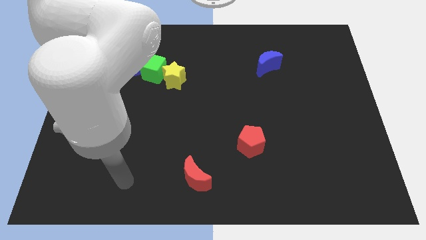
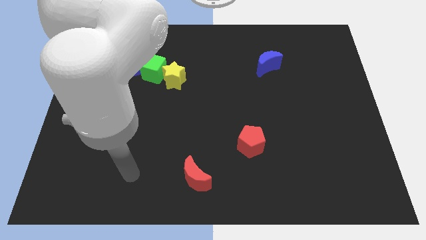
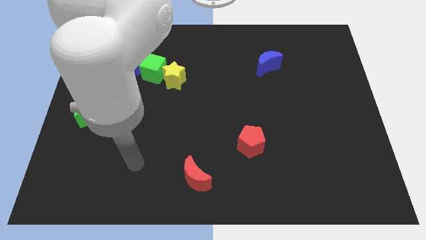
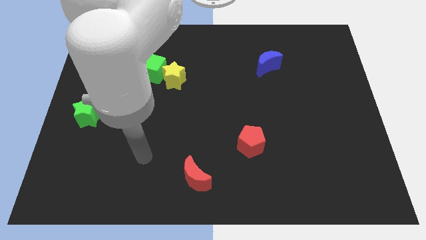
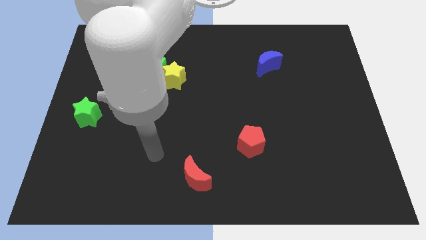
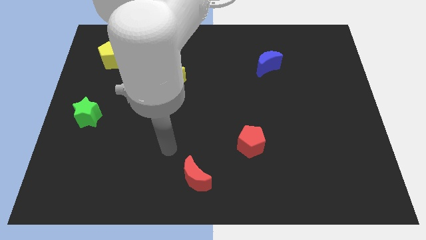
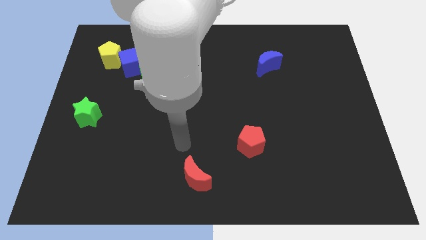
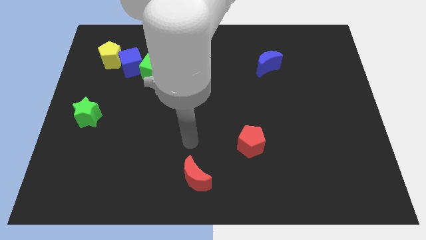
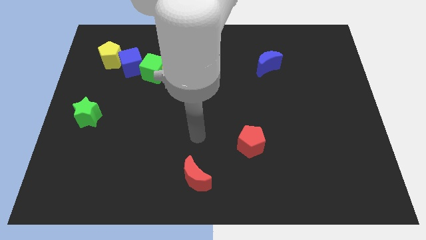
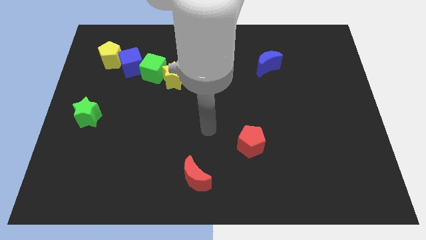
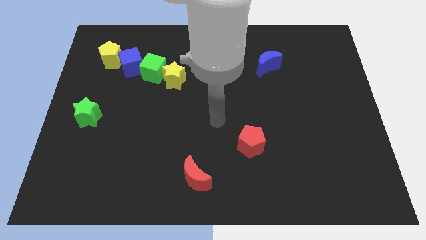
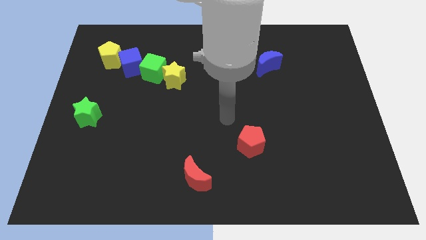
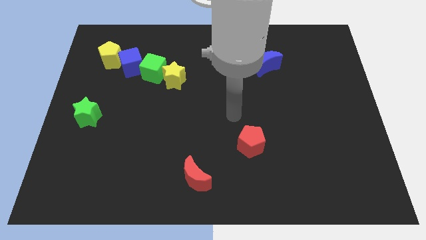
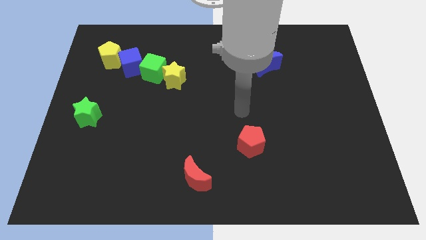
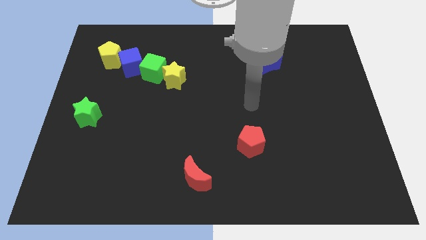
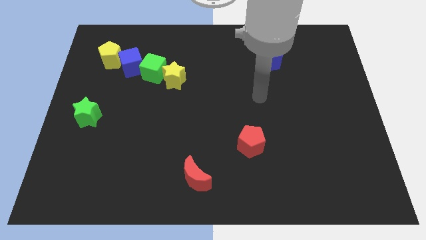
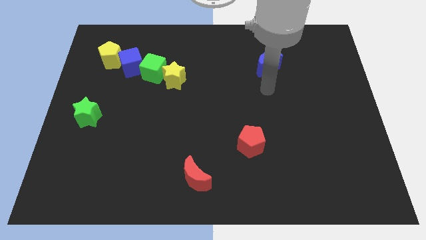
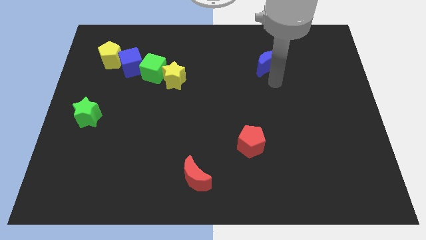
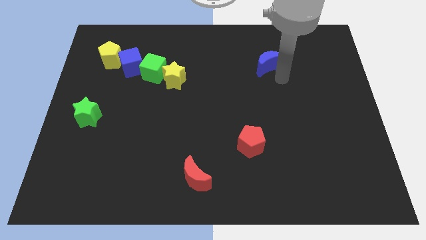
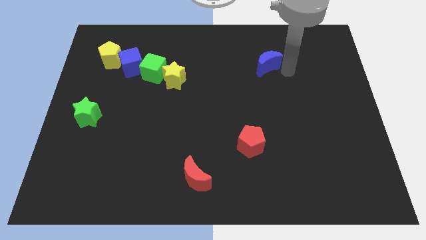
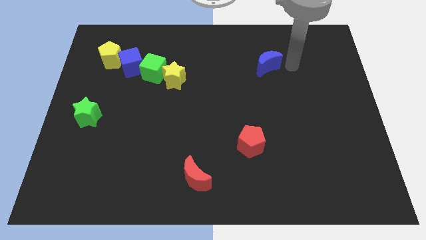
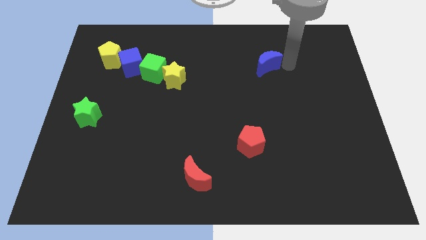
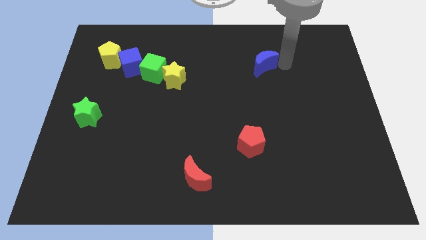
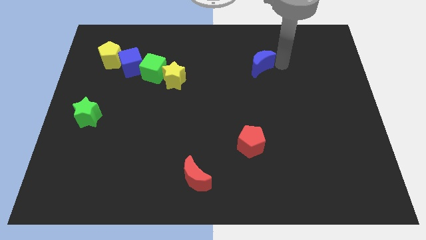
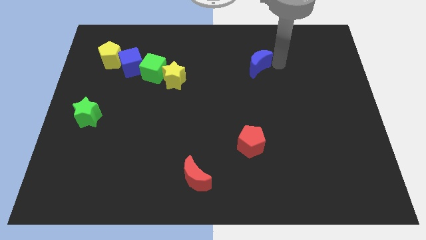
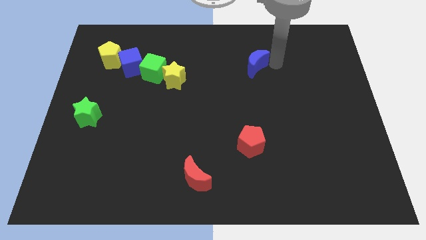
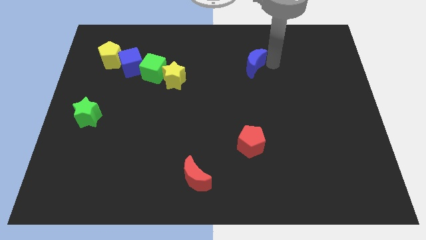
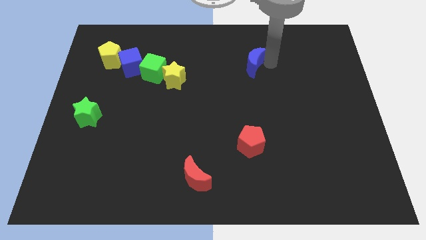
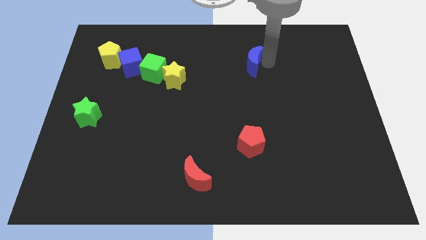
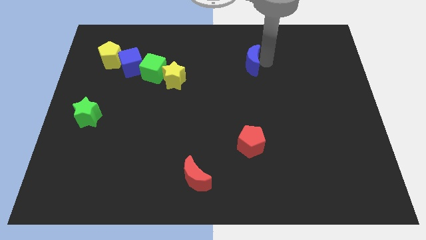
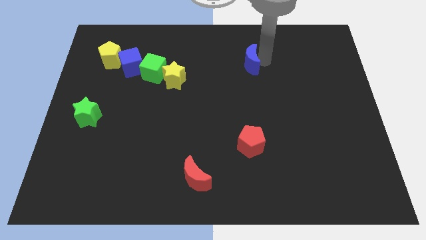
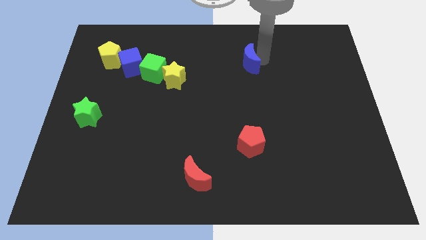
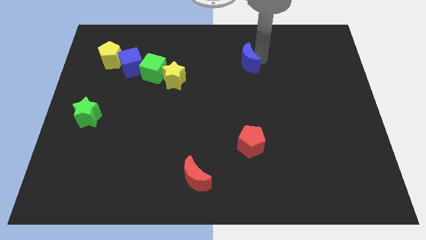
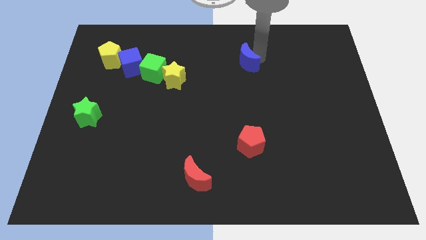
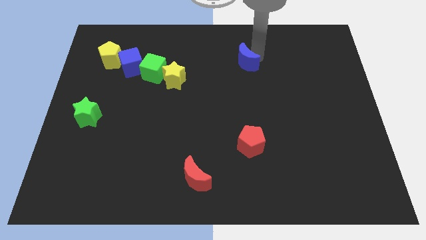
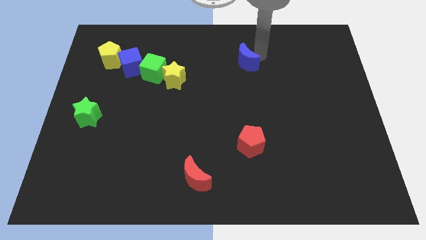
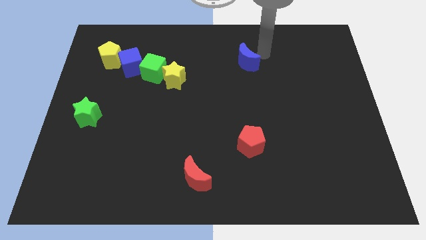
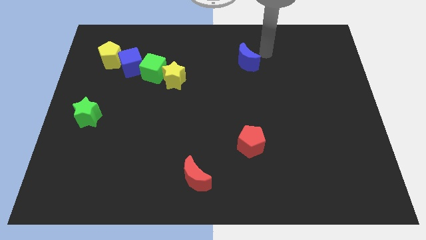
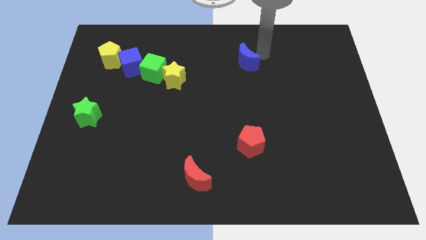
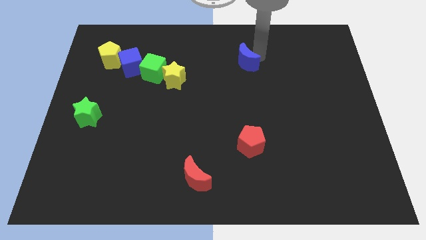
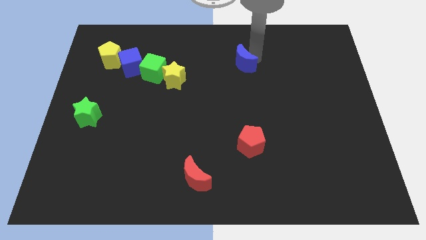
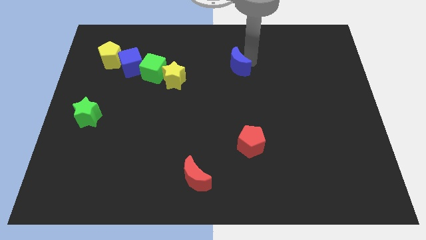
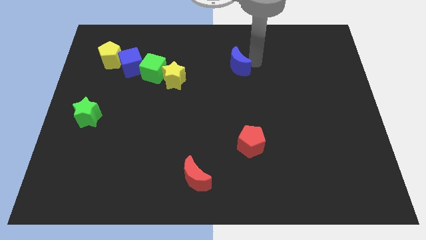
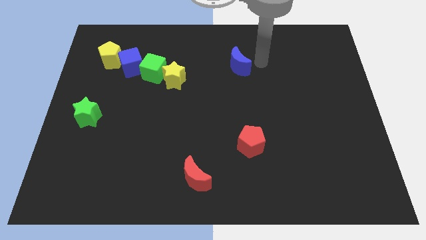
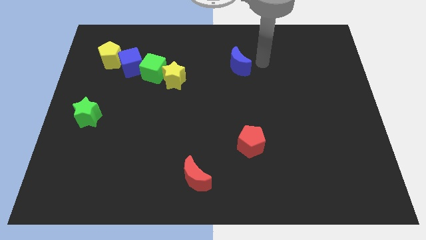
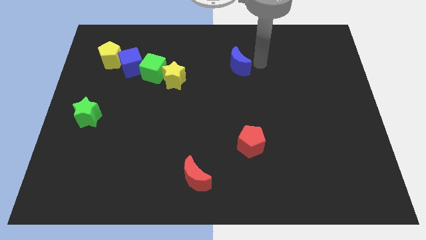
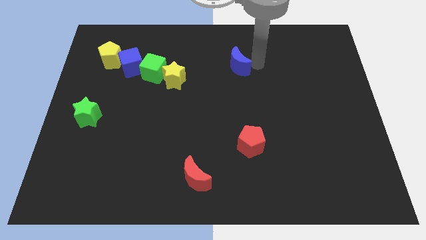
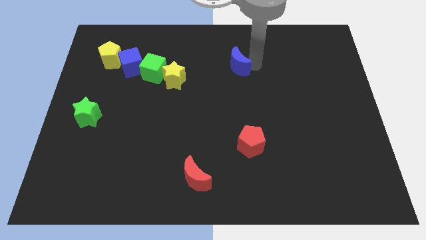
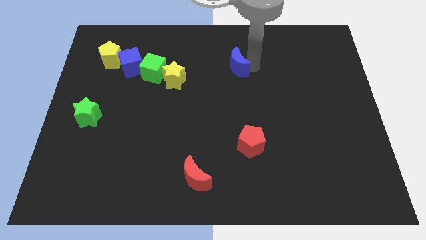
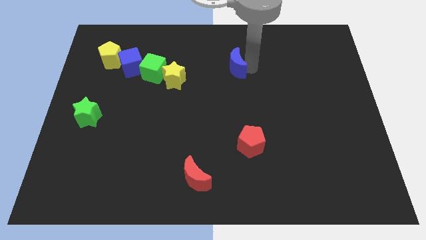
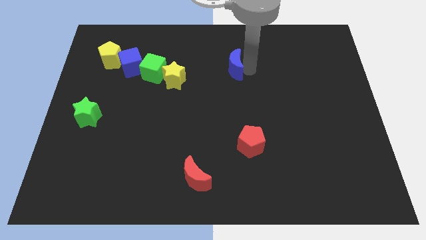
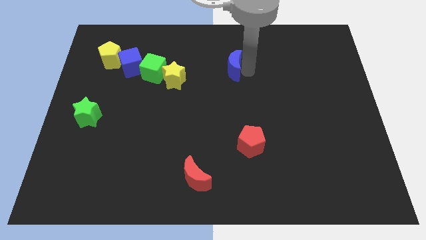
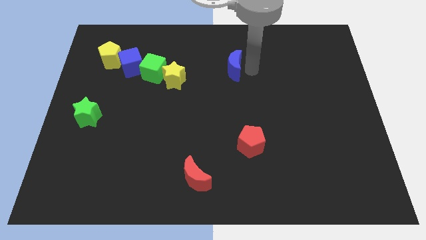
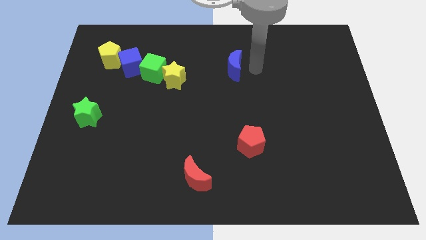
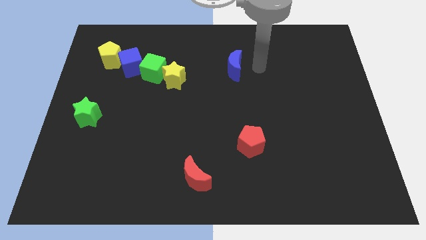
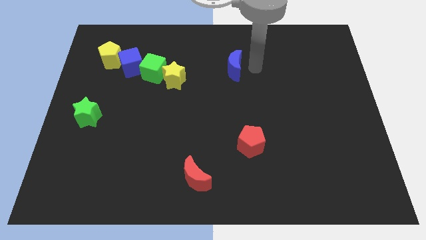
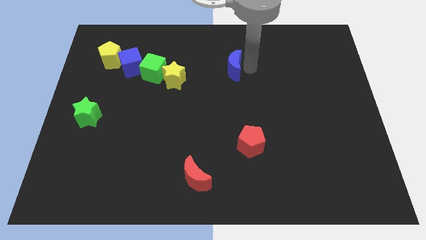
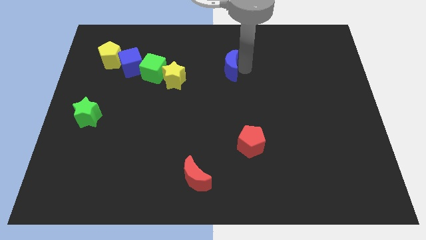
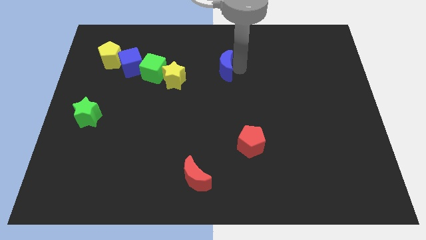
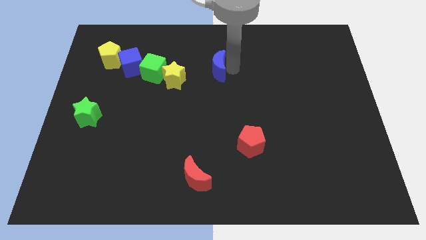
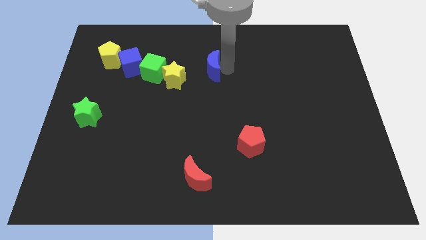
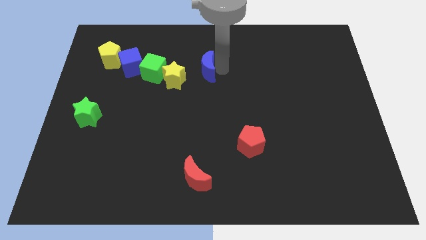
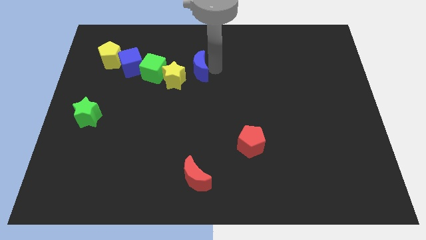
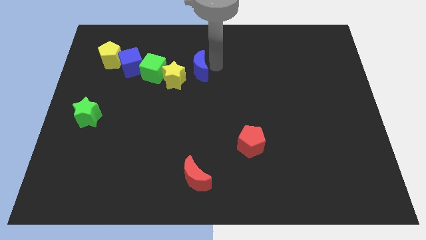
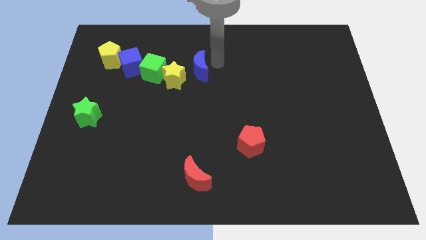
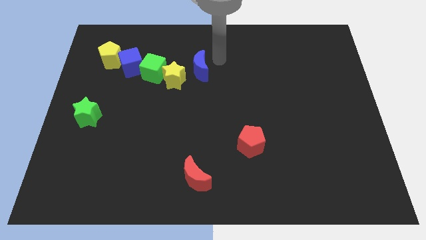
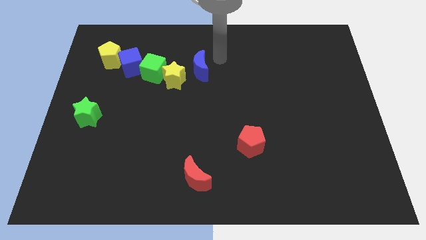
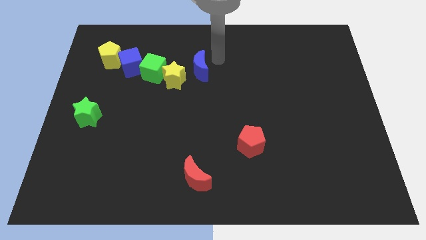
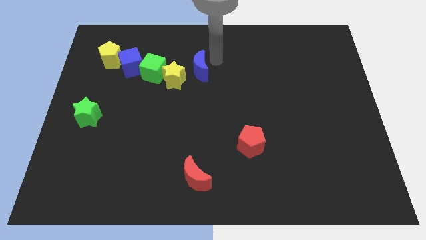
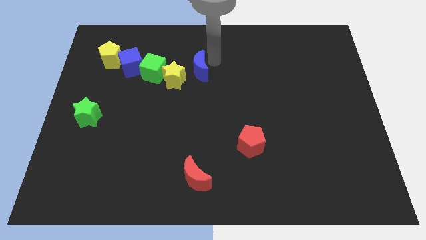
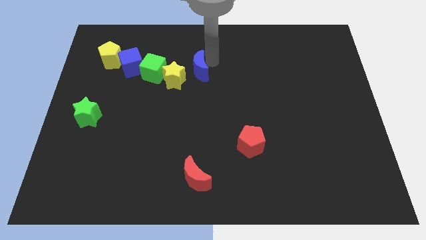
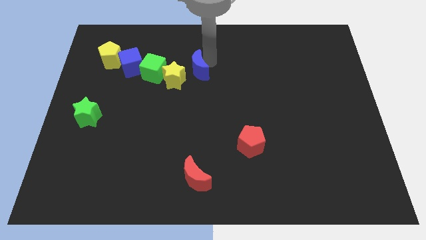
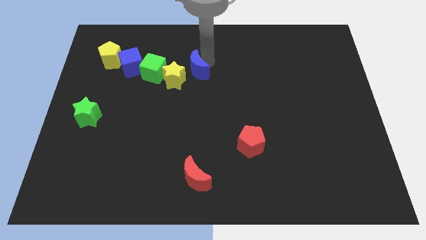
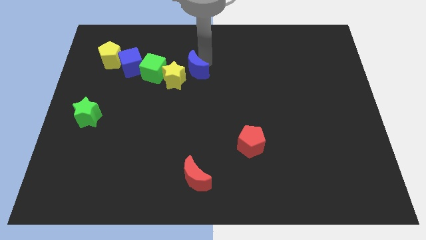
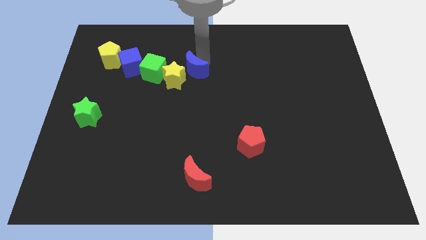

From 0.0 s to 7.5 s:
put the blue moon close to the yellow star

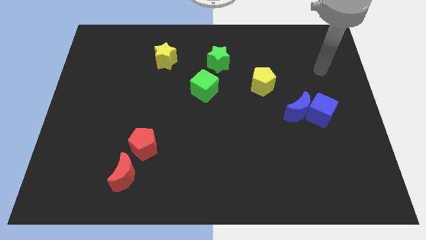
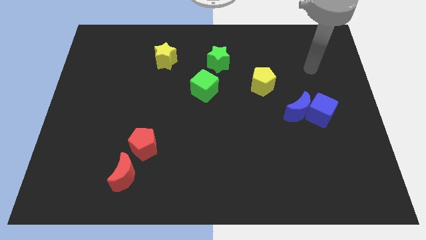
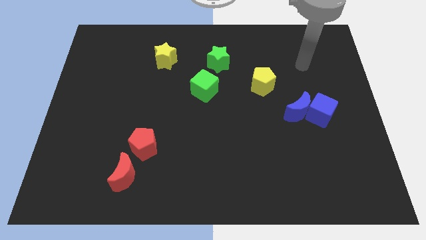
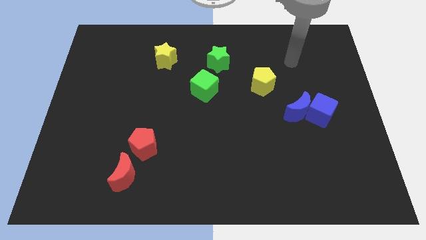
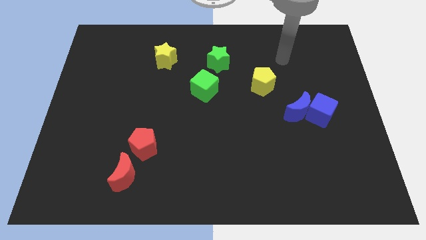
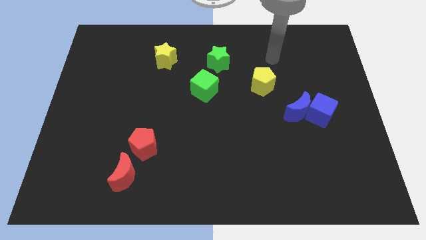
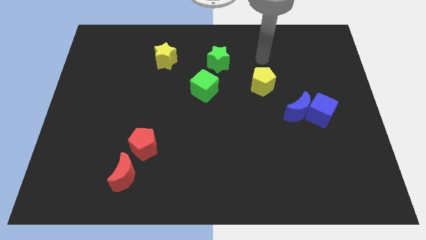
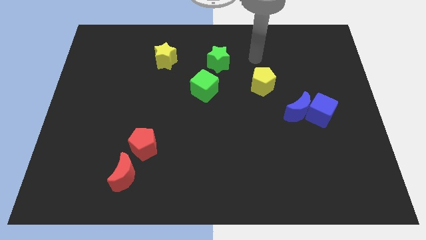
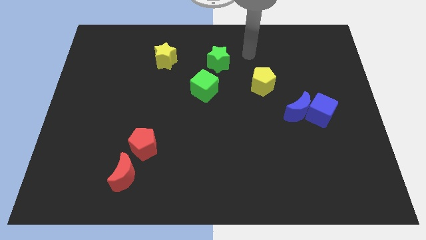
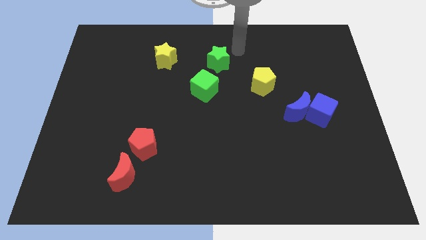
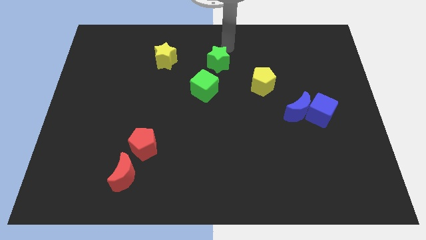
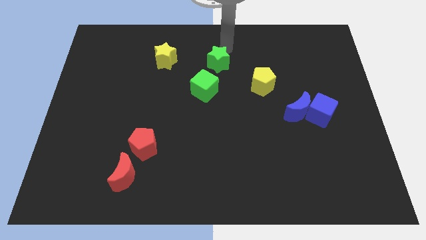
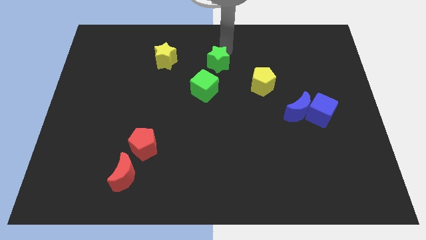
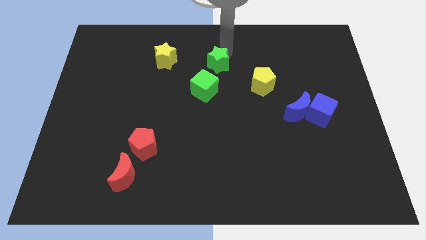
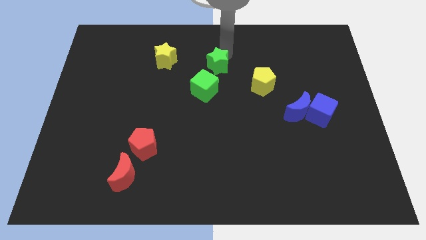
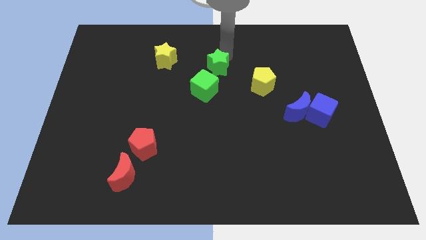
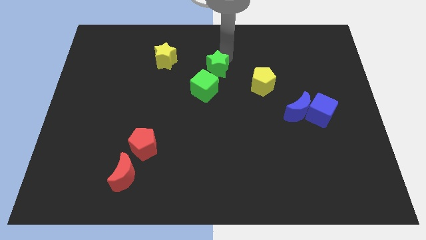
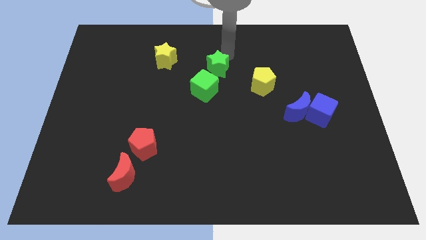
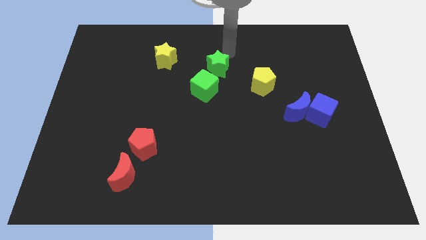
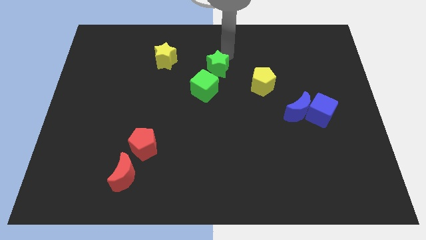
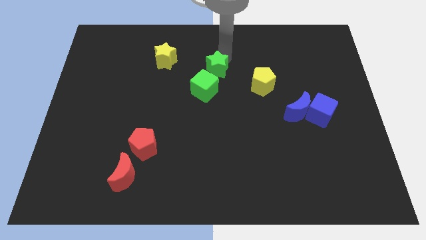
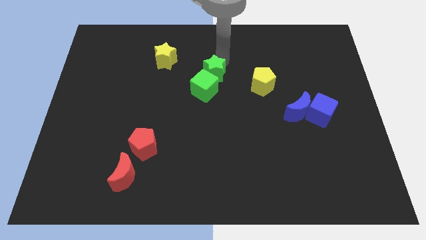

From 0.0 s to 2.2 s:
push the green star towards the green cube
